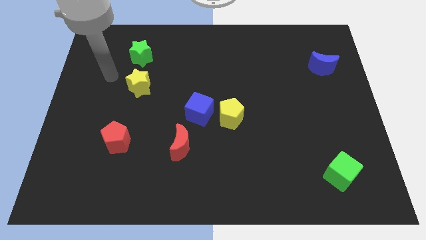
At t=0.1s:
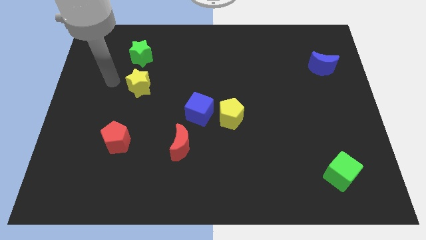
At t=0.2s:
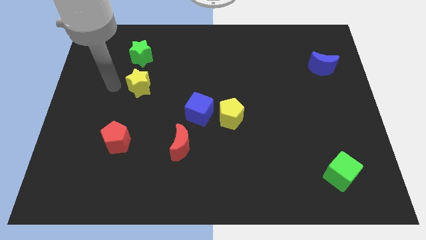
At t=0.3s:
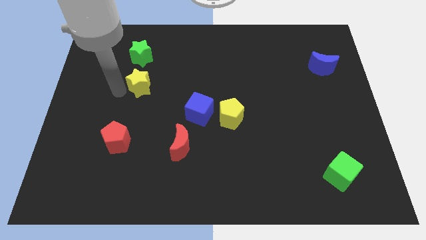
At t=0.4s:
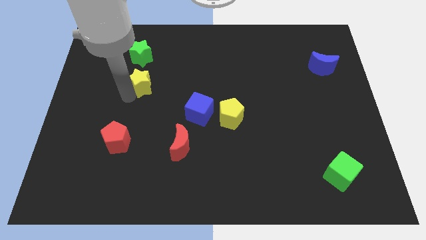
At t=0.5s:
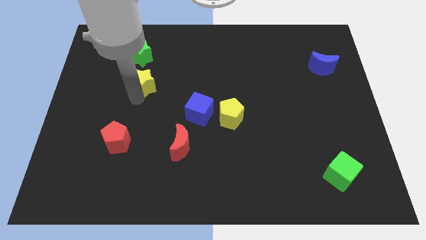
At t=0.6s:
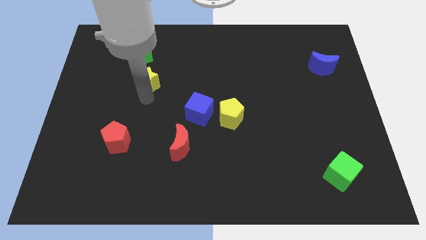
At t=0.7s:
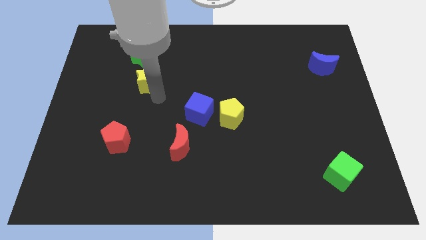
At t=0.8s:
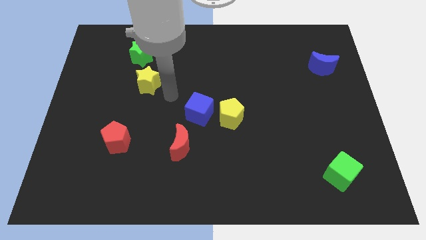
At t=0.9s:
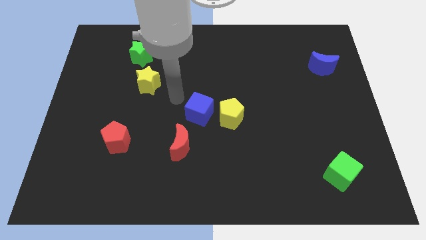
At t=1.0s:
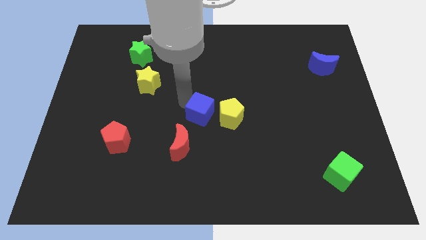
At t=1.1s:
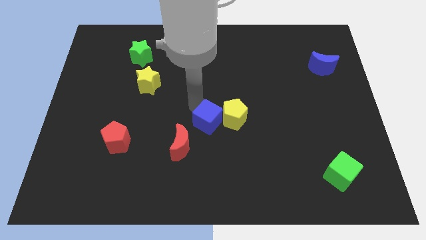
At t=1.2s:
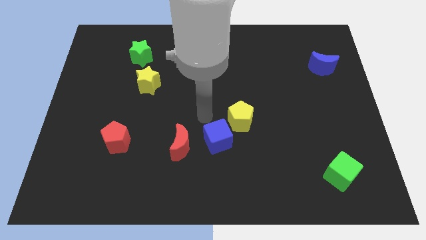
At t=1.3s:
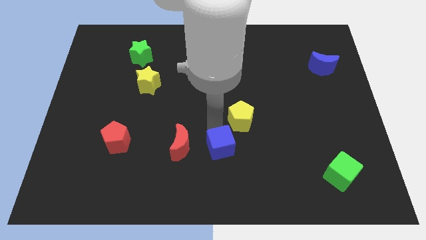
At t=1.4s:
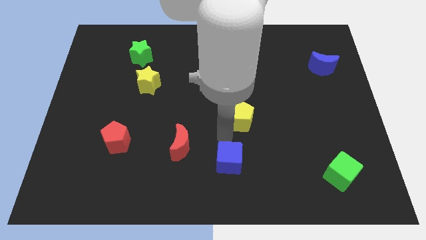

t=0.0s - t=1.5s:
move the yellow pentagon away from the blue cube

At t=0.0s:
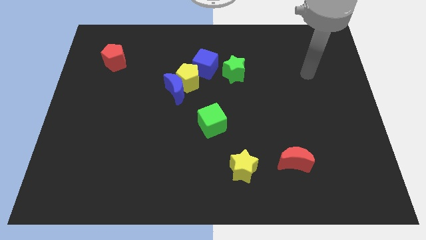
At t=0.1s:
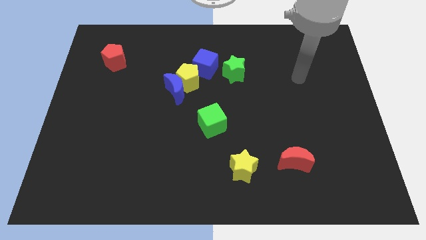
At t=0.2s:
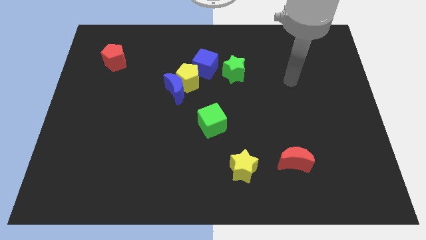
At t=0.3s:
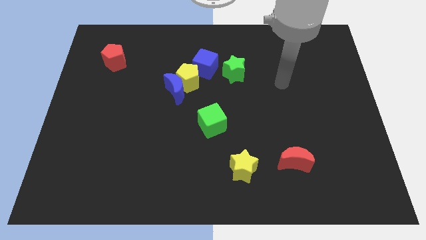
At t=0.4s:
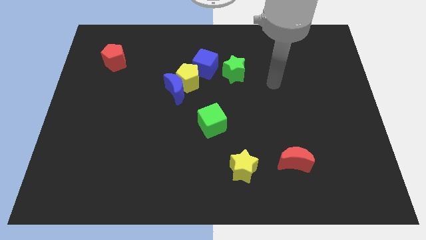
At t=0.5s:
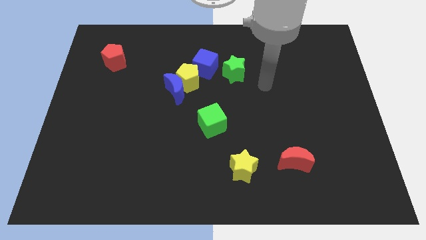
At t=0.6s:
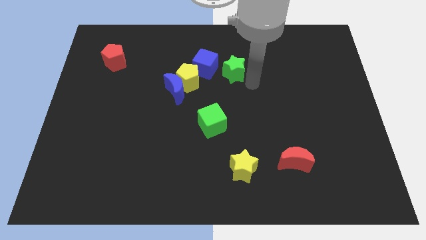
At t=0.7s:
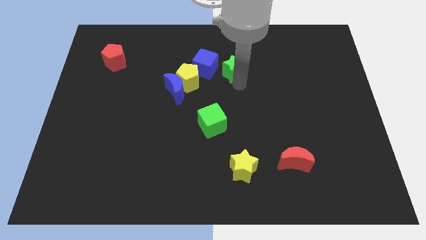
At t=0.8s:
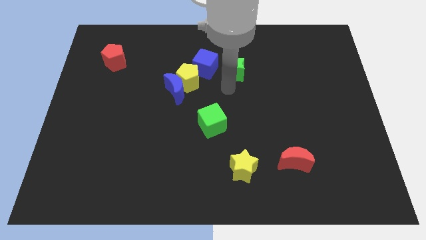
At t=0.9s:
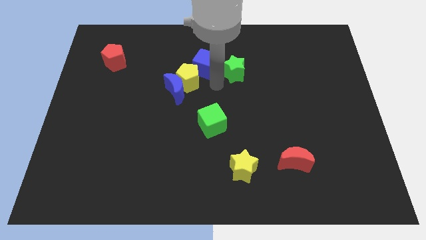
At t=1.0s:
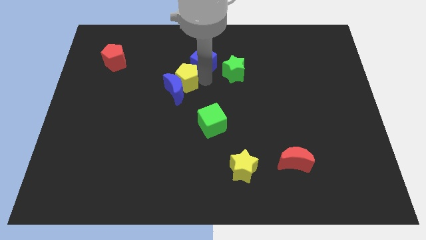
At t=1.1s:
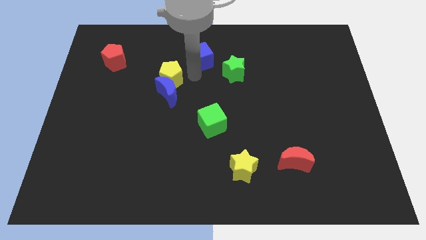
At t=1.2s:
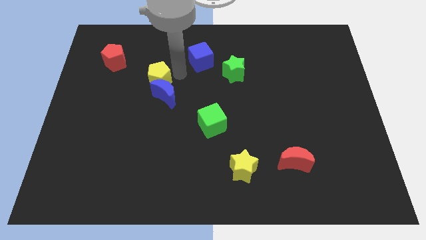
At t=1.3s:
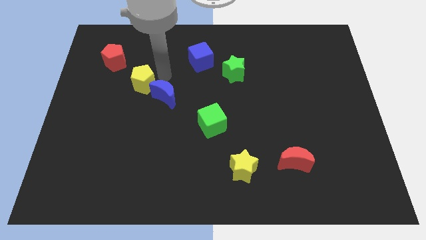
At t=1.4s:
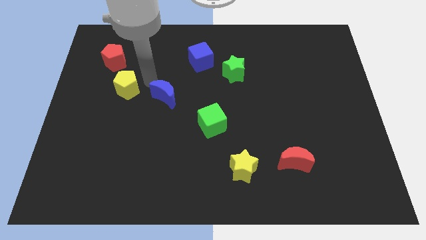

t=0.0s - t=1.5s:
separate the blue moon from the yellow pentagon

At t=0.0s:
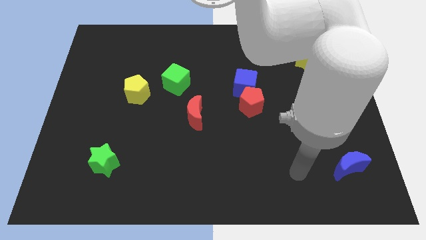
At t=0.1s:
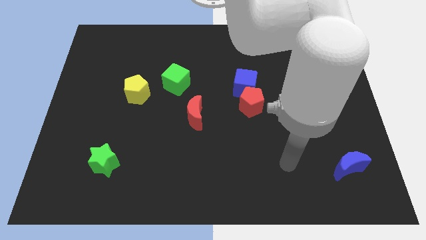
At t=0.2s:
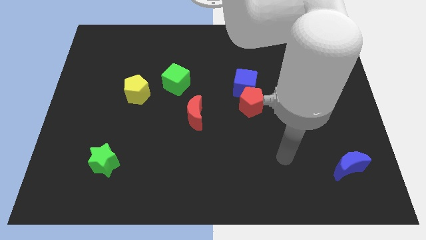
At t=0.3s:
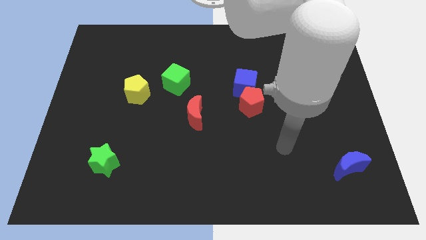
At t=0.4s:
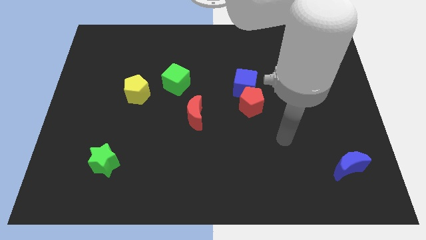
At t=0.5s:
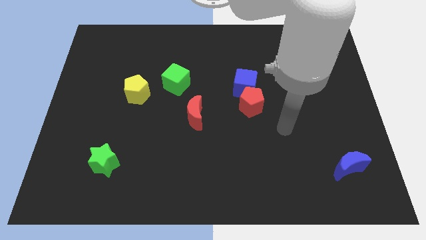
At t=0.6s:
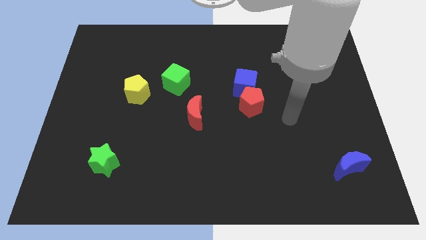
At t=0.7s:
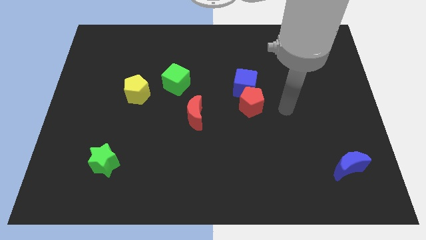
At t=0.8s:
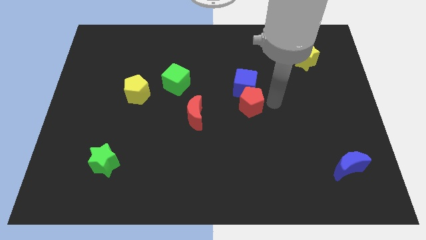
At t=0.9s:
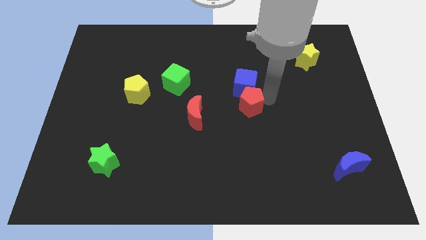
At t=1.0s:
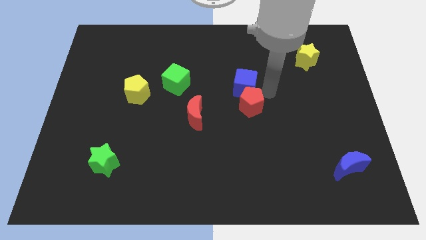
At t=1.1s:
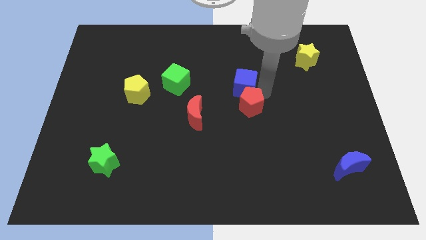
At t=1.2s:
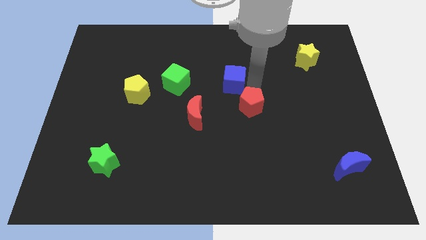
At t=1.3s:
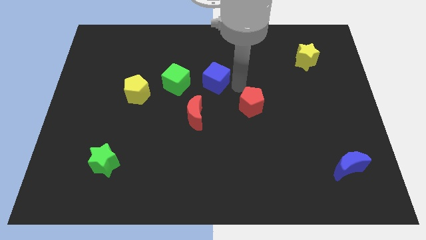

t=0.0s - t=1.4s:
move the red pentagon away from the blue cube

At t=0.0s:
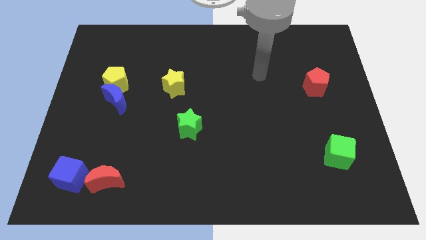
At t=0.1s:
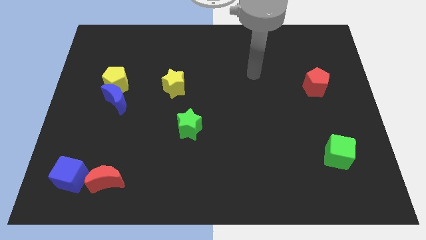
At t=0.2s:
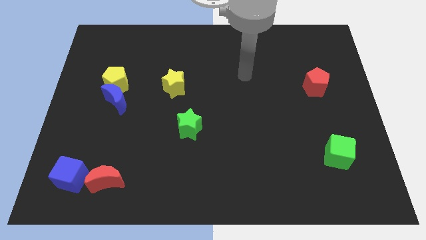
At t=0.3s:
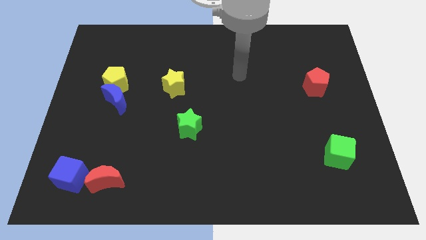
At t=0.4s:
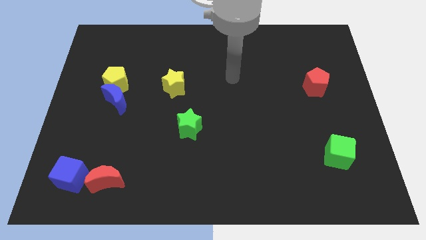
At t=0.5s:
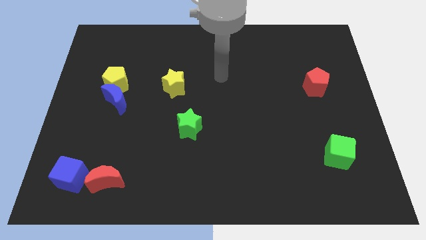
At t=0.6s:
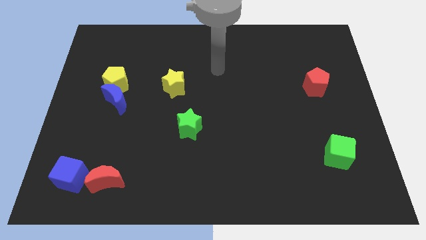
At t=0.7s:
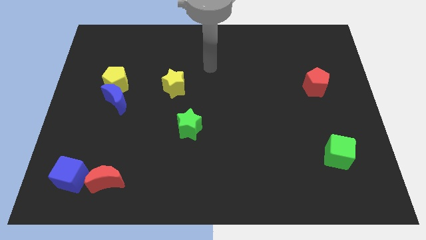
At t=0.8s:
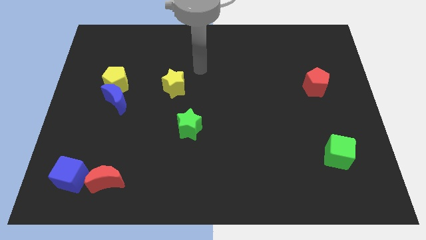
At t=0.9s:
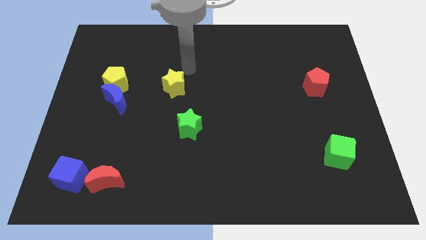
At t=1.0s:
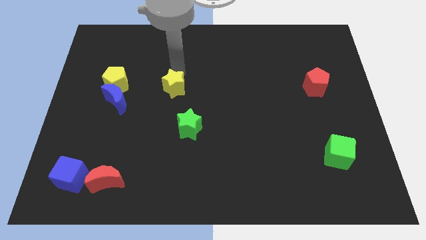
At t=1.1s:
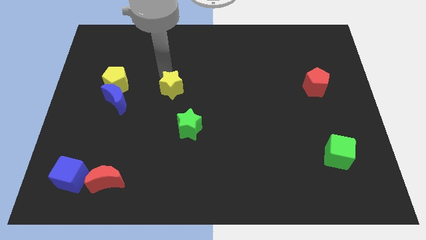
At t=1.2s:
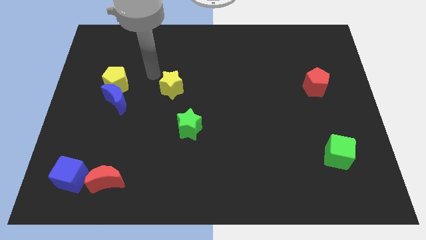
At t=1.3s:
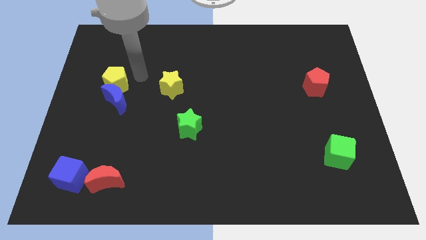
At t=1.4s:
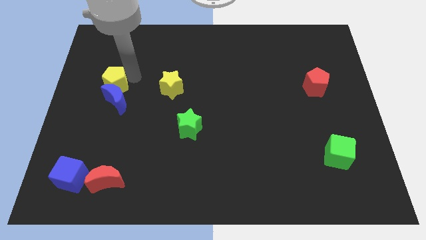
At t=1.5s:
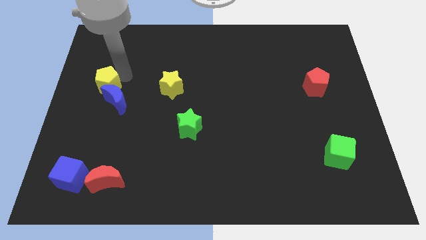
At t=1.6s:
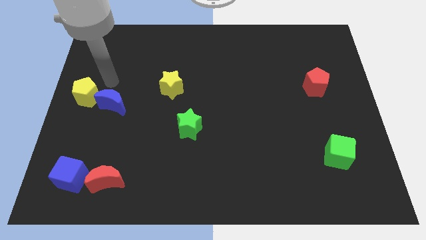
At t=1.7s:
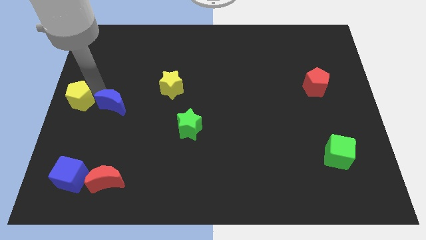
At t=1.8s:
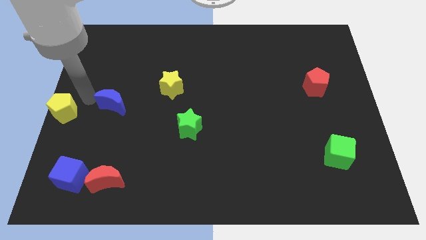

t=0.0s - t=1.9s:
move the blue moon away from the yellow pentagon

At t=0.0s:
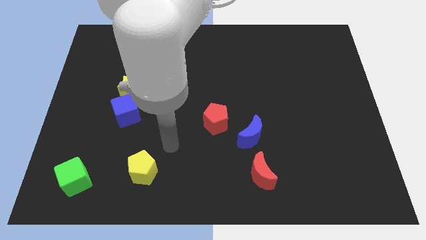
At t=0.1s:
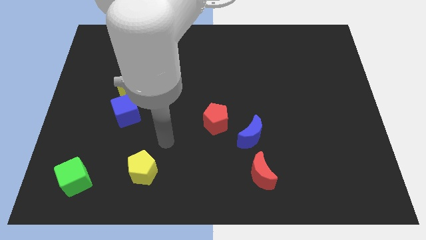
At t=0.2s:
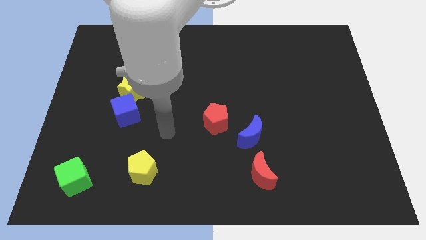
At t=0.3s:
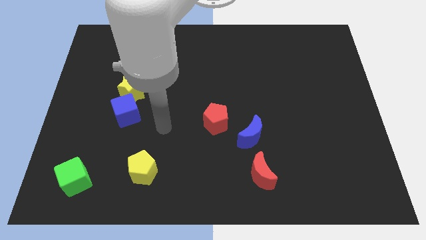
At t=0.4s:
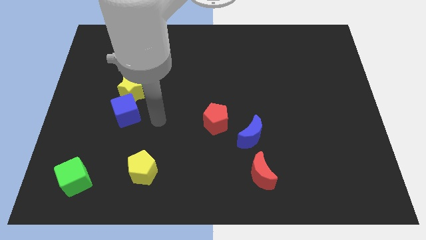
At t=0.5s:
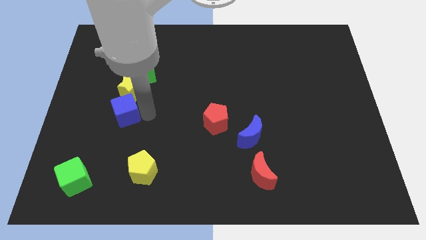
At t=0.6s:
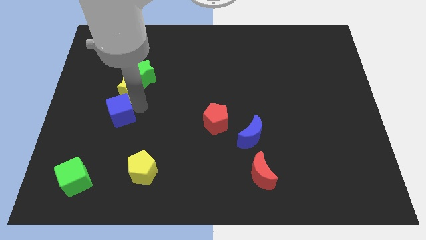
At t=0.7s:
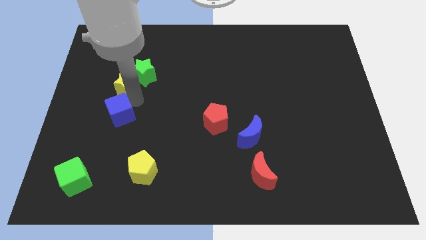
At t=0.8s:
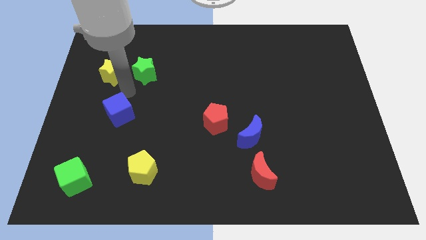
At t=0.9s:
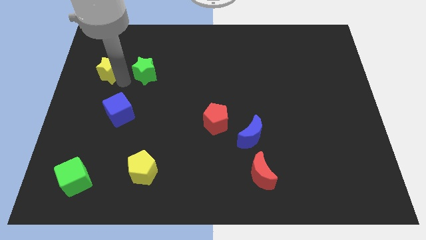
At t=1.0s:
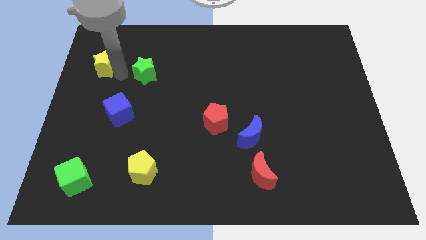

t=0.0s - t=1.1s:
move the green star away from the yellow star

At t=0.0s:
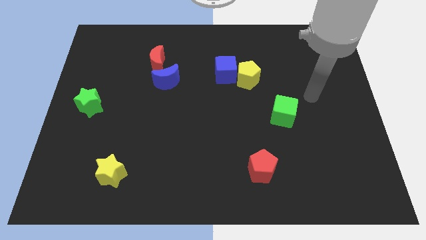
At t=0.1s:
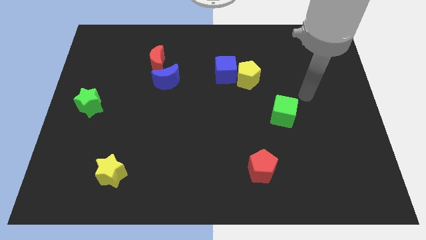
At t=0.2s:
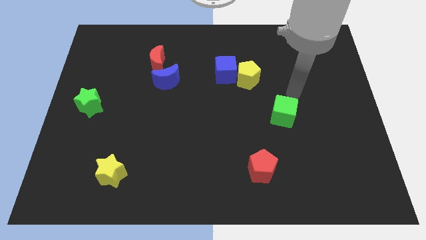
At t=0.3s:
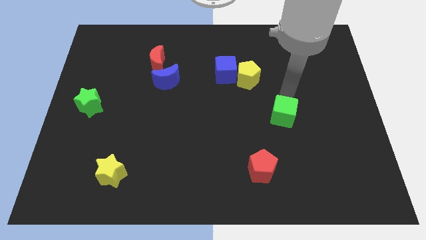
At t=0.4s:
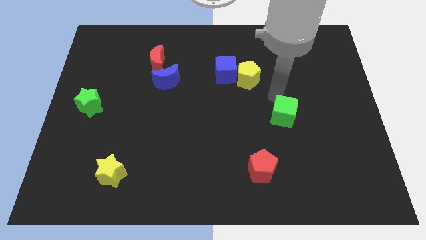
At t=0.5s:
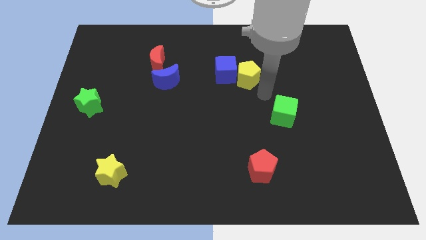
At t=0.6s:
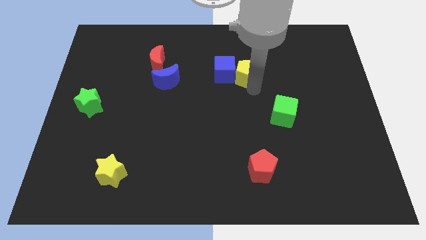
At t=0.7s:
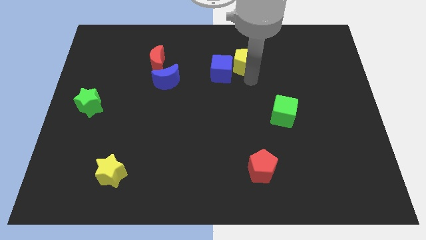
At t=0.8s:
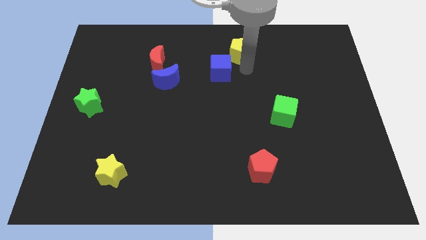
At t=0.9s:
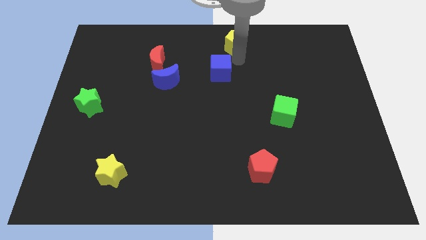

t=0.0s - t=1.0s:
separate the blue cube from the yellow pentagon

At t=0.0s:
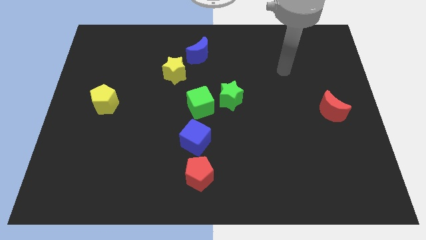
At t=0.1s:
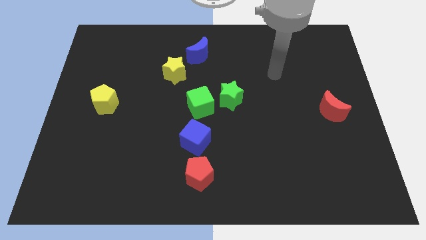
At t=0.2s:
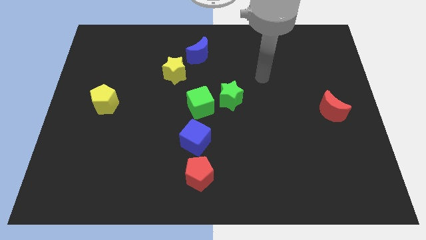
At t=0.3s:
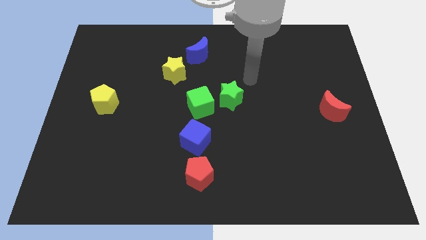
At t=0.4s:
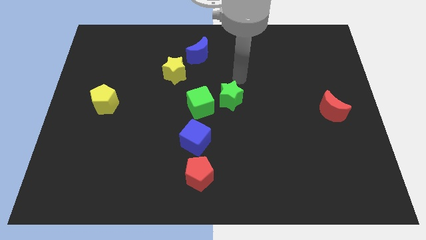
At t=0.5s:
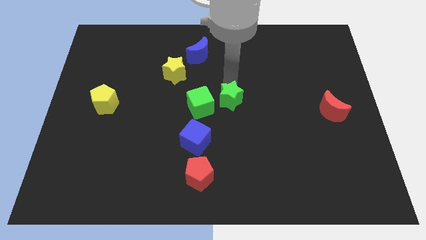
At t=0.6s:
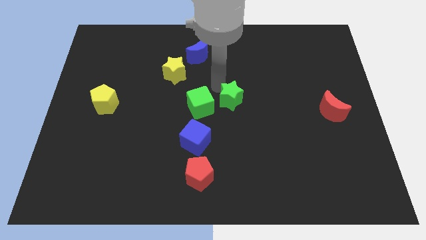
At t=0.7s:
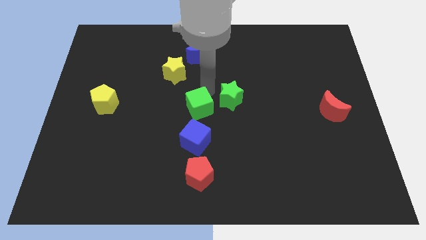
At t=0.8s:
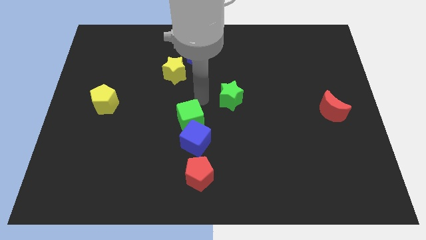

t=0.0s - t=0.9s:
separate the green star from the green cube
